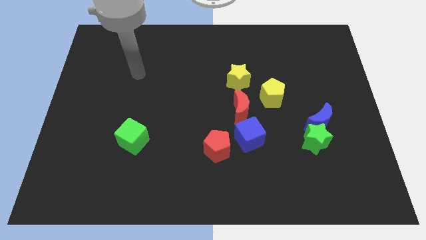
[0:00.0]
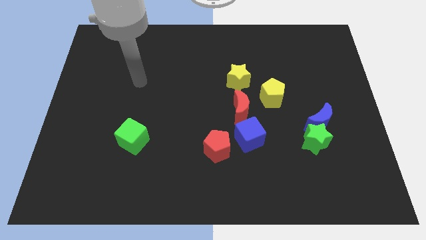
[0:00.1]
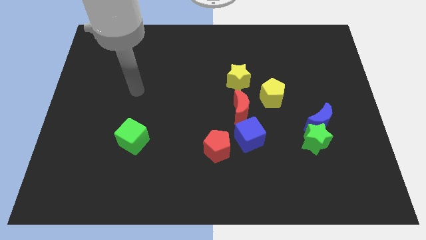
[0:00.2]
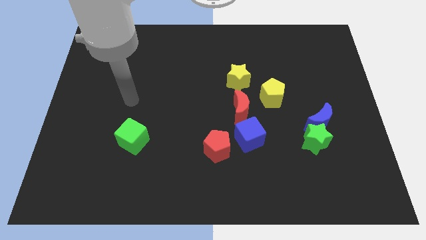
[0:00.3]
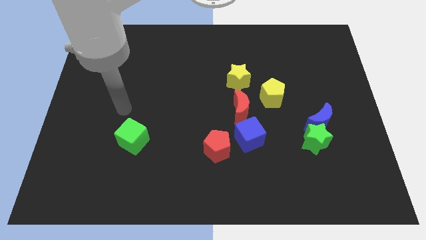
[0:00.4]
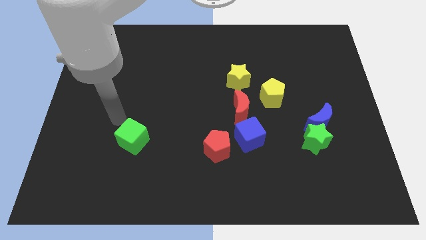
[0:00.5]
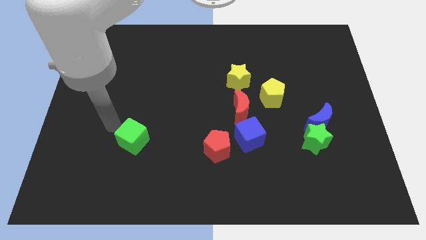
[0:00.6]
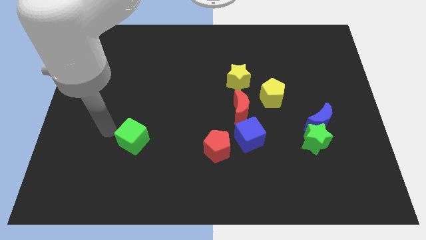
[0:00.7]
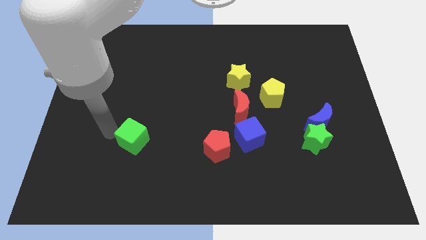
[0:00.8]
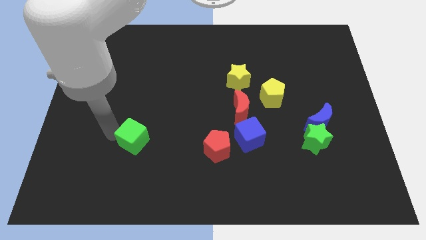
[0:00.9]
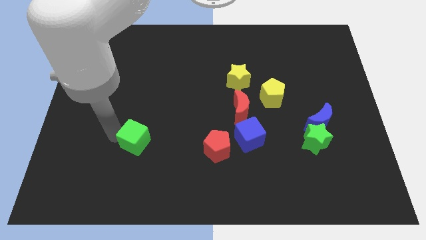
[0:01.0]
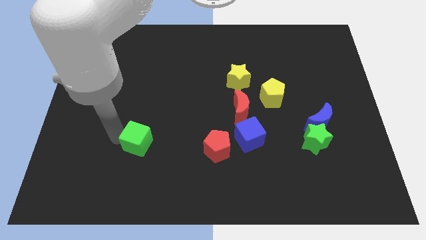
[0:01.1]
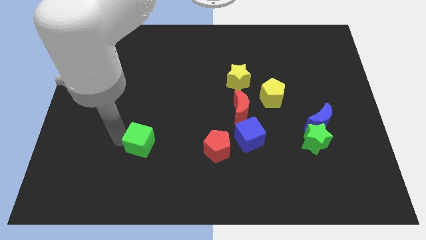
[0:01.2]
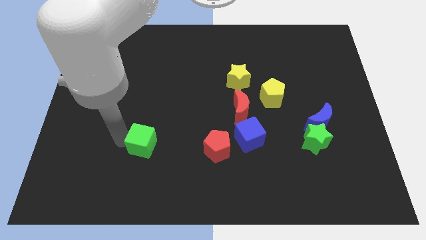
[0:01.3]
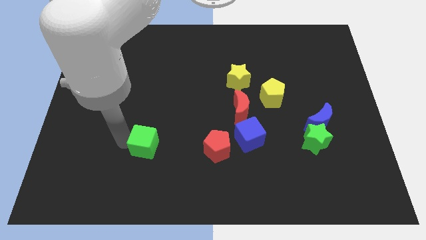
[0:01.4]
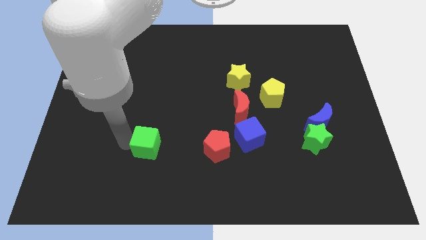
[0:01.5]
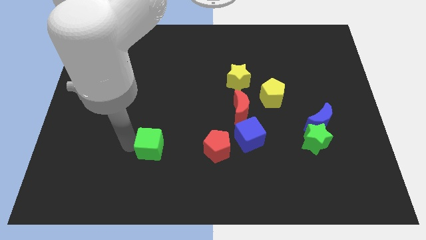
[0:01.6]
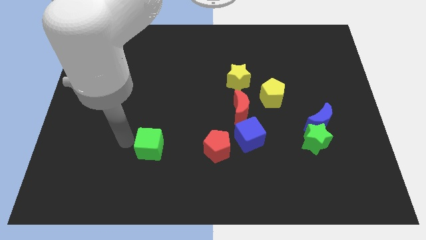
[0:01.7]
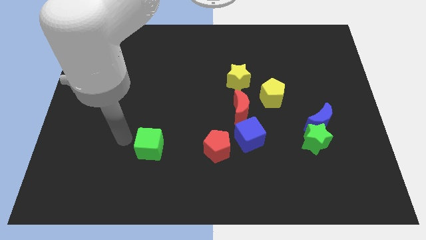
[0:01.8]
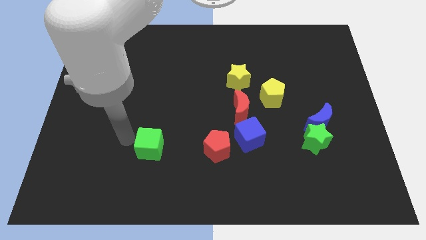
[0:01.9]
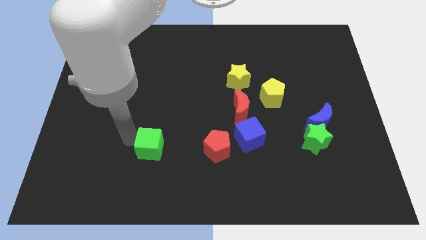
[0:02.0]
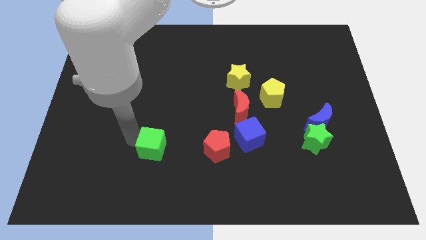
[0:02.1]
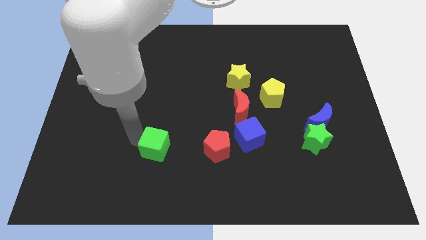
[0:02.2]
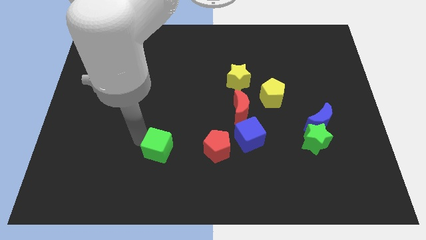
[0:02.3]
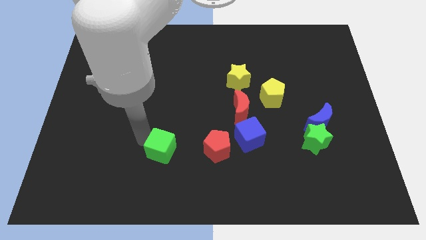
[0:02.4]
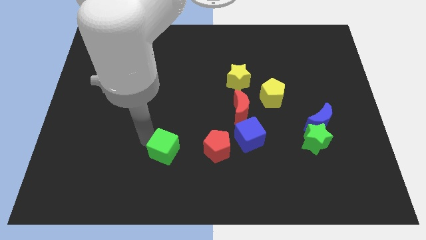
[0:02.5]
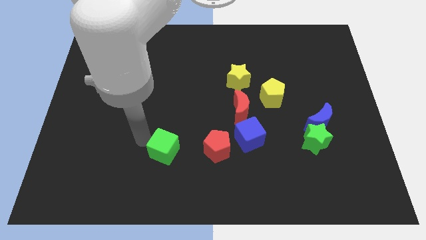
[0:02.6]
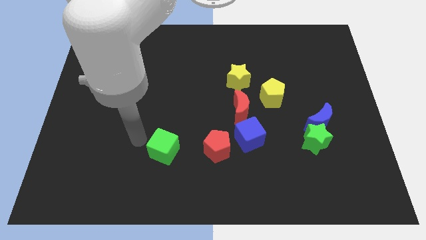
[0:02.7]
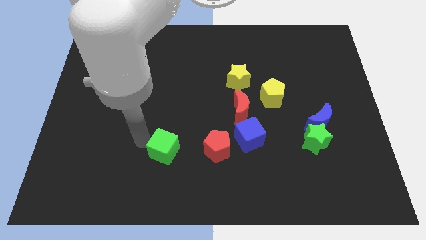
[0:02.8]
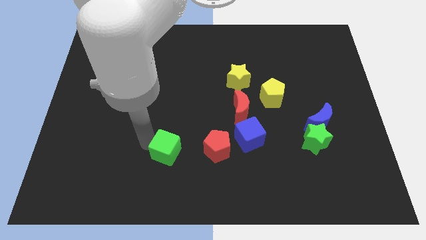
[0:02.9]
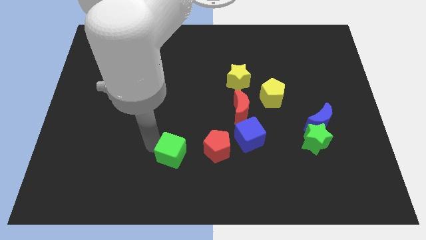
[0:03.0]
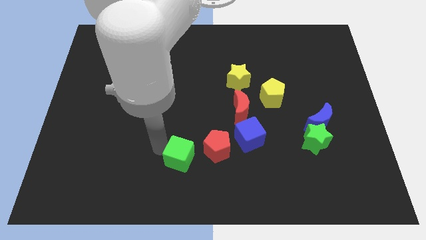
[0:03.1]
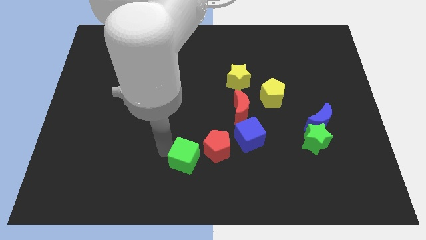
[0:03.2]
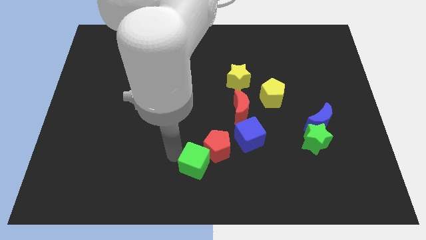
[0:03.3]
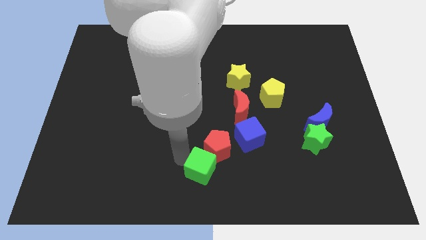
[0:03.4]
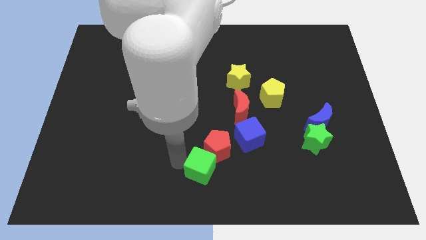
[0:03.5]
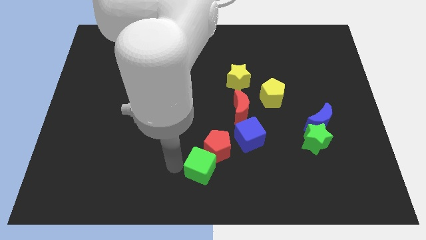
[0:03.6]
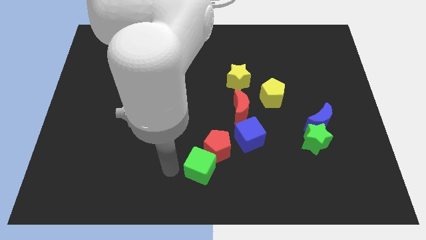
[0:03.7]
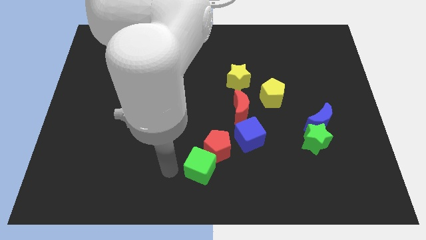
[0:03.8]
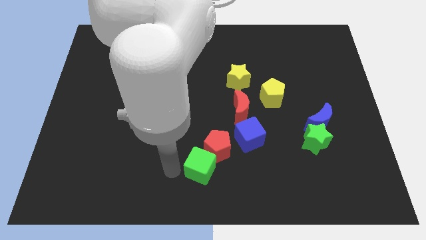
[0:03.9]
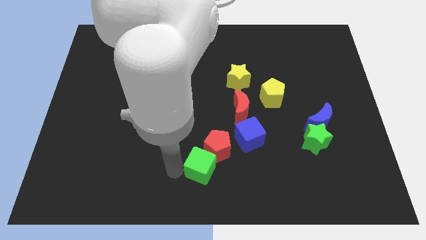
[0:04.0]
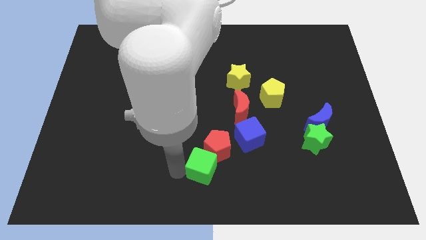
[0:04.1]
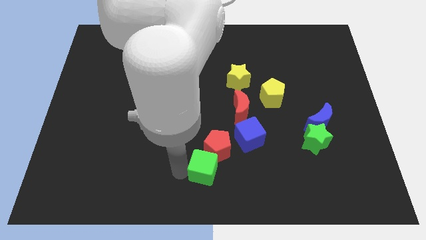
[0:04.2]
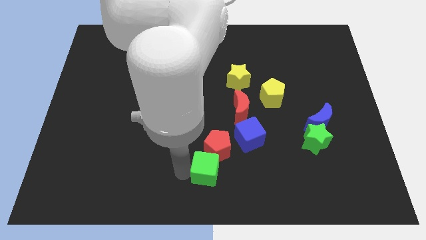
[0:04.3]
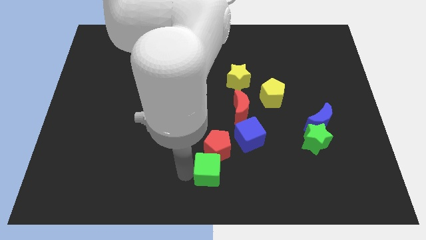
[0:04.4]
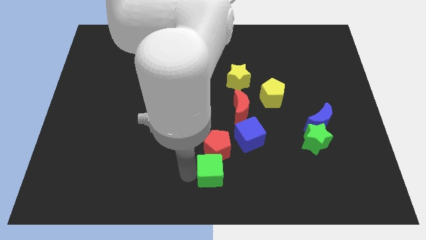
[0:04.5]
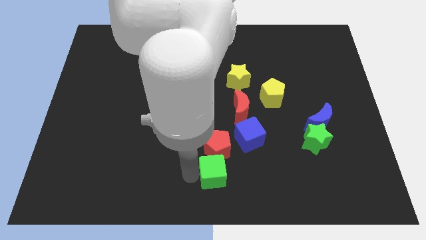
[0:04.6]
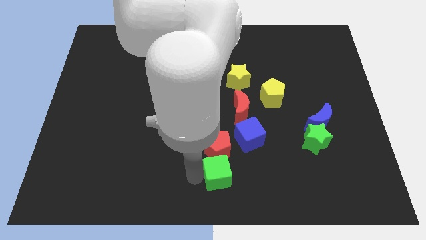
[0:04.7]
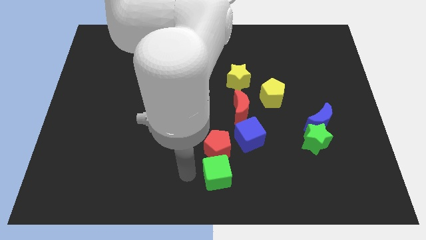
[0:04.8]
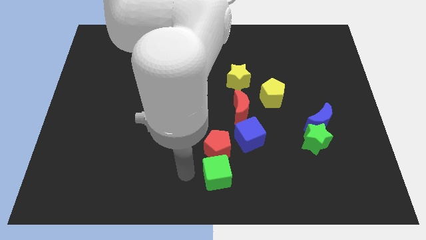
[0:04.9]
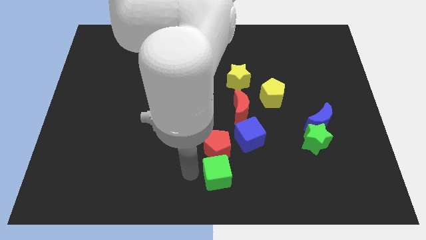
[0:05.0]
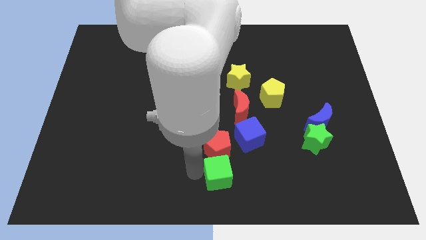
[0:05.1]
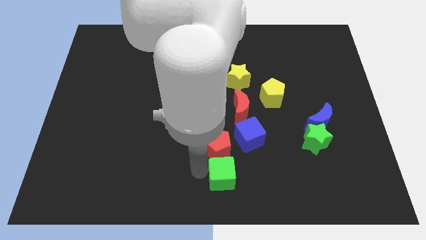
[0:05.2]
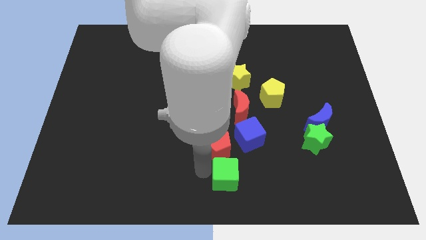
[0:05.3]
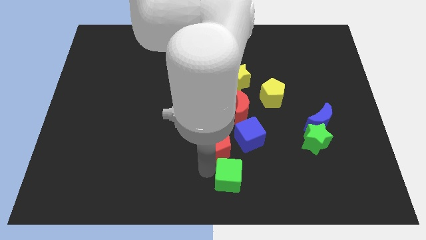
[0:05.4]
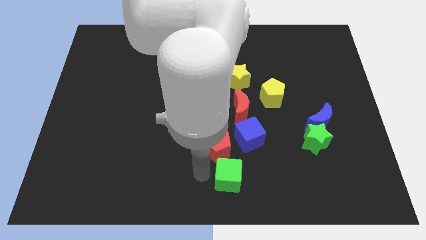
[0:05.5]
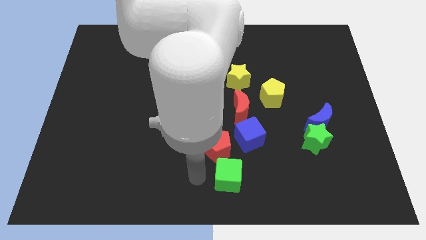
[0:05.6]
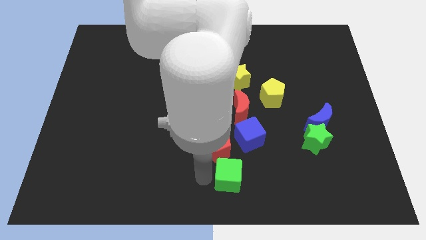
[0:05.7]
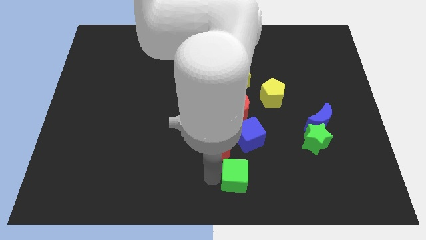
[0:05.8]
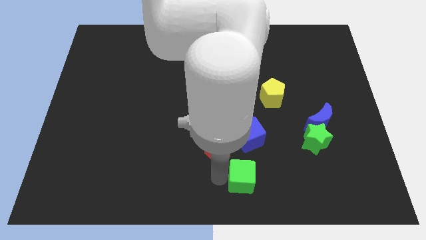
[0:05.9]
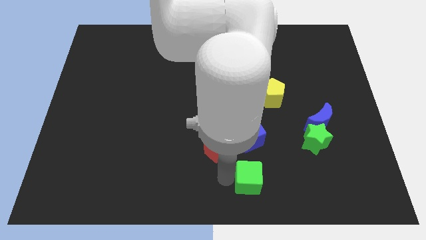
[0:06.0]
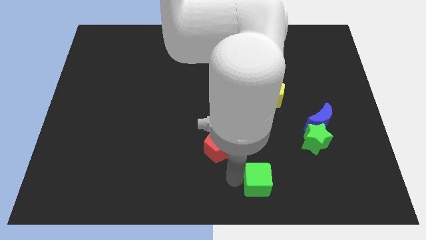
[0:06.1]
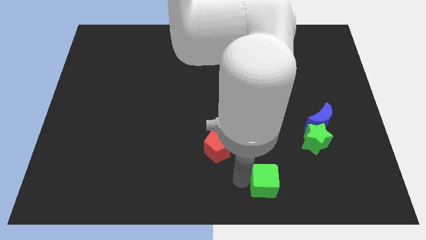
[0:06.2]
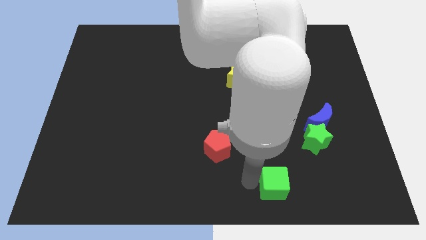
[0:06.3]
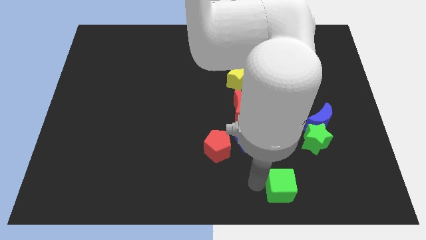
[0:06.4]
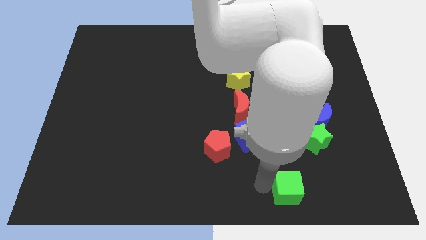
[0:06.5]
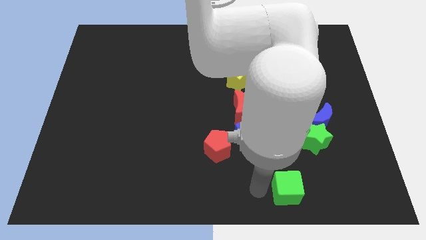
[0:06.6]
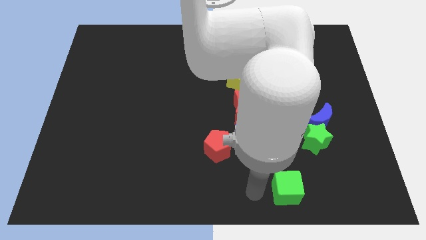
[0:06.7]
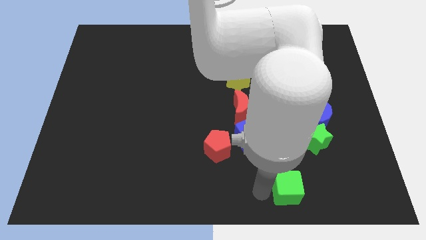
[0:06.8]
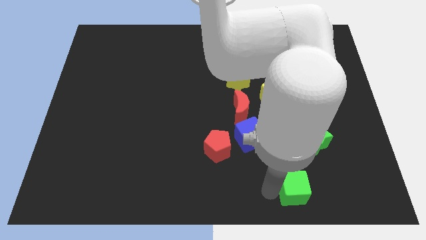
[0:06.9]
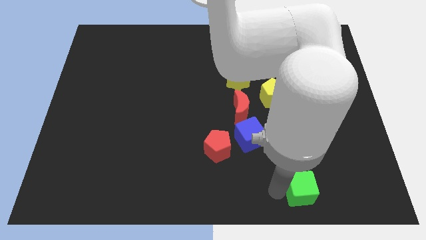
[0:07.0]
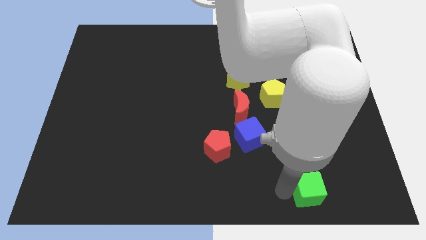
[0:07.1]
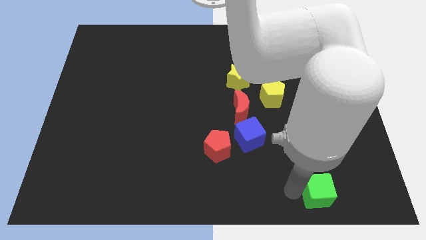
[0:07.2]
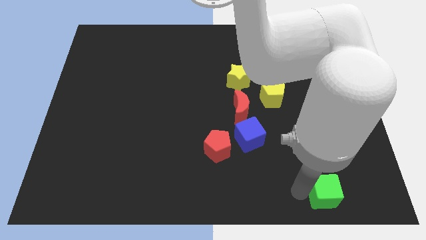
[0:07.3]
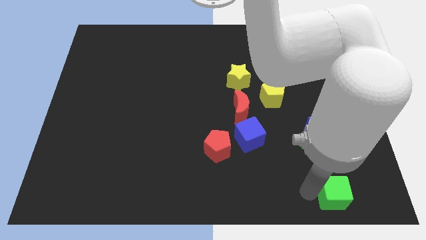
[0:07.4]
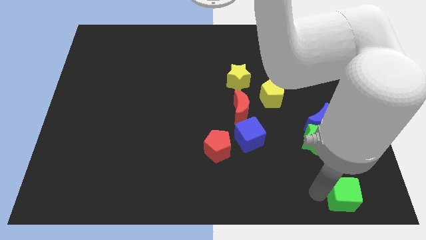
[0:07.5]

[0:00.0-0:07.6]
push the green cube to the bottom right corner
